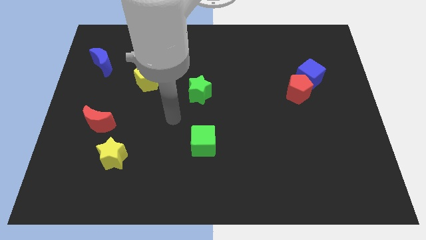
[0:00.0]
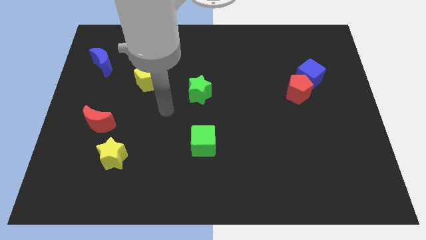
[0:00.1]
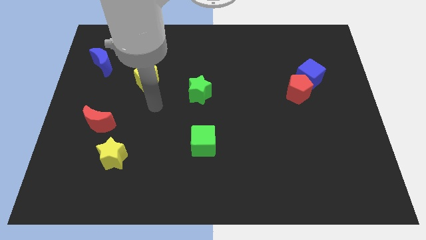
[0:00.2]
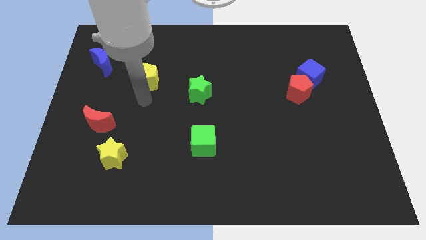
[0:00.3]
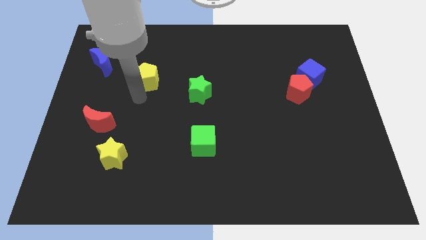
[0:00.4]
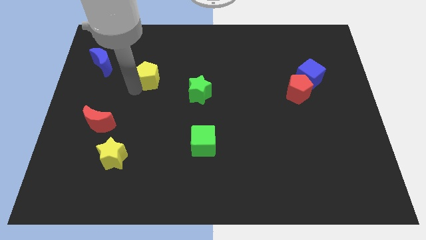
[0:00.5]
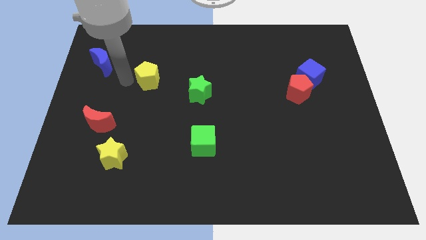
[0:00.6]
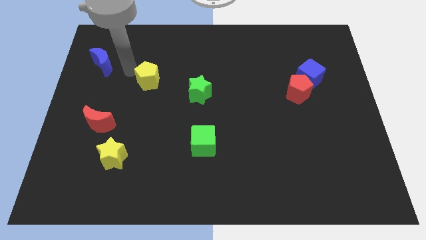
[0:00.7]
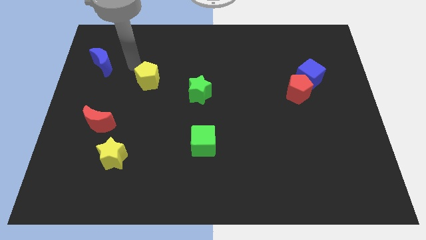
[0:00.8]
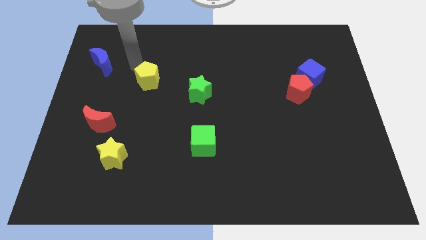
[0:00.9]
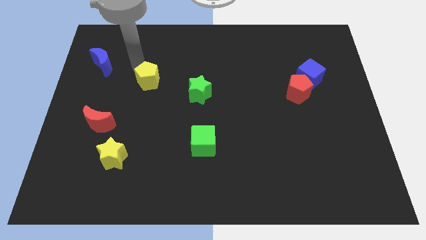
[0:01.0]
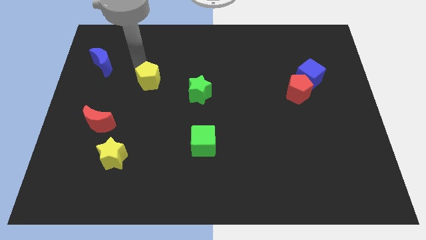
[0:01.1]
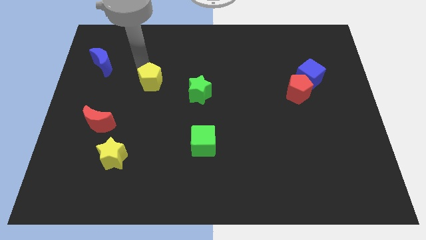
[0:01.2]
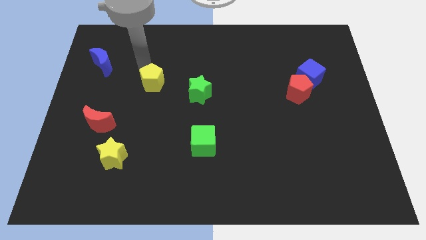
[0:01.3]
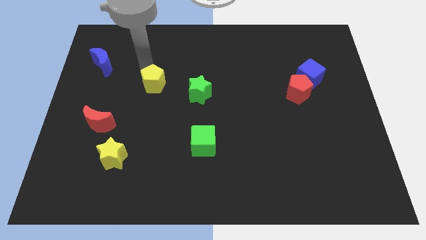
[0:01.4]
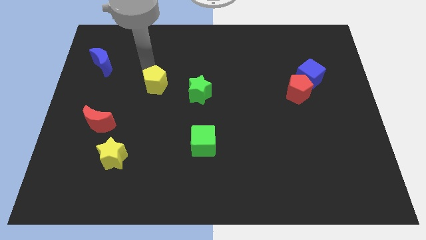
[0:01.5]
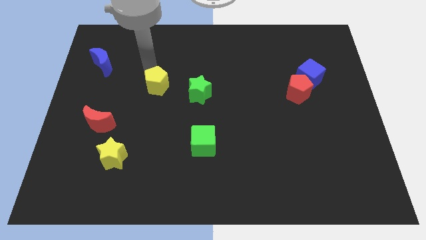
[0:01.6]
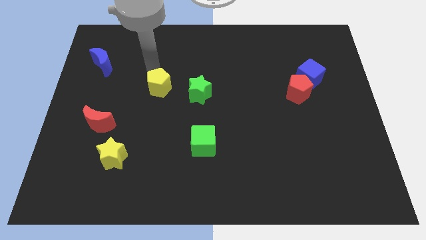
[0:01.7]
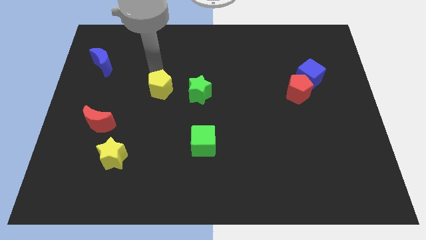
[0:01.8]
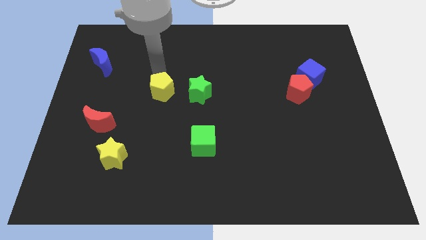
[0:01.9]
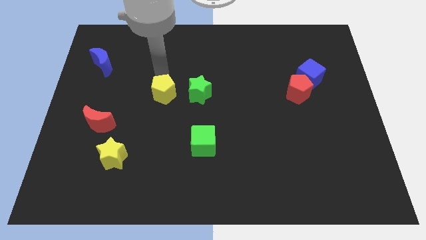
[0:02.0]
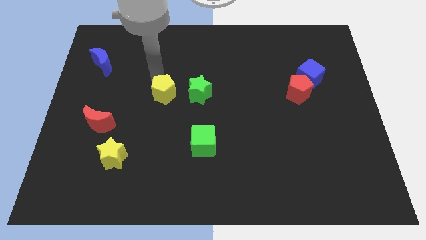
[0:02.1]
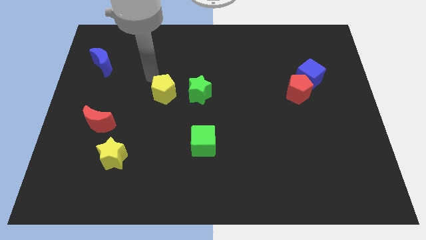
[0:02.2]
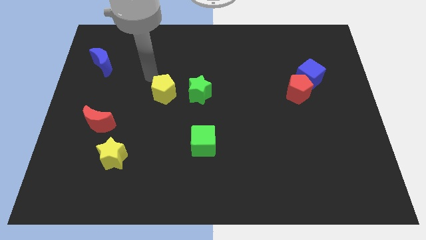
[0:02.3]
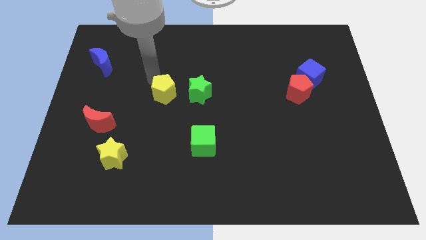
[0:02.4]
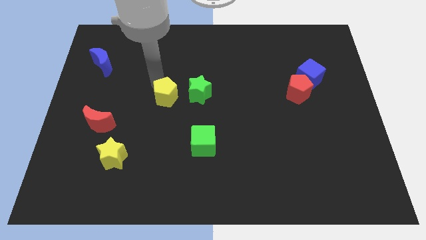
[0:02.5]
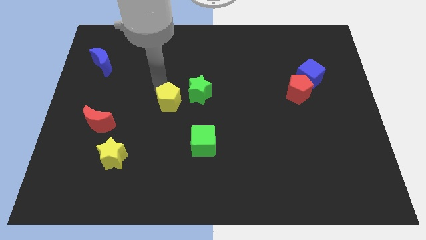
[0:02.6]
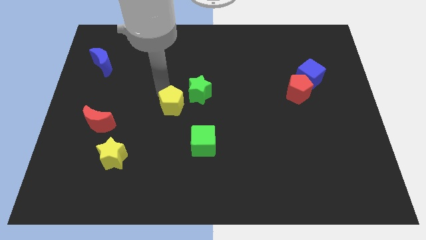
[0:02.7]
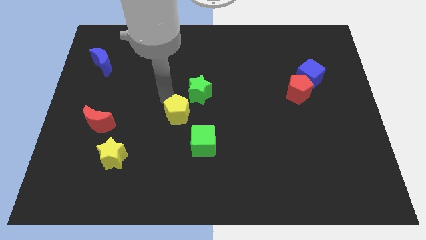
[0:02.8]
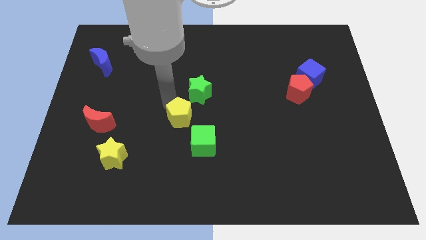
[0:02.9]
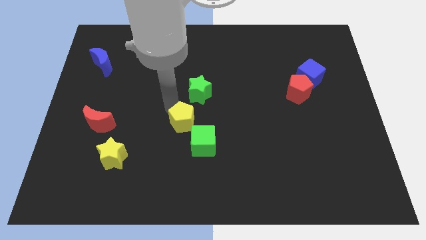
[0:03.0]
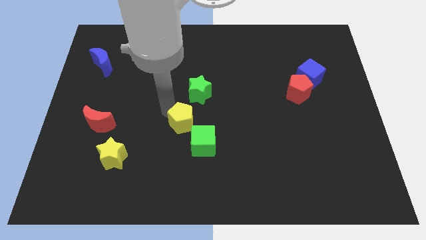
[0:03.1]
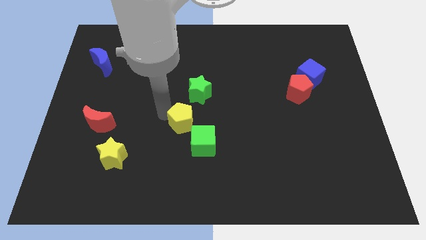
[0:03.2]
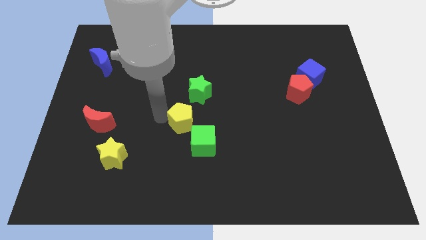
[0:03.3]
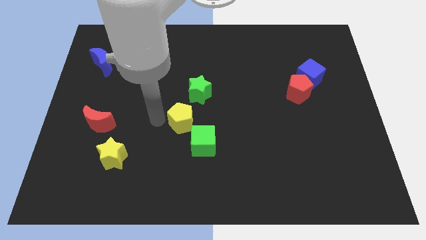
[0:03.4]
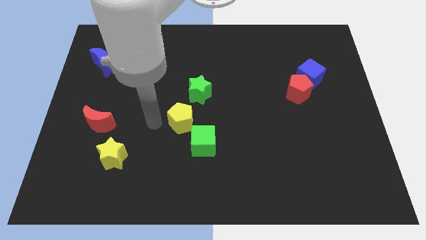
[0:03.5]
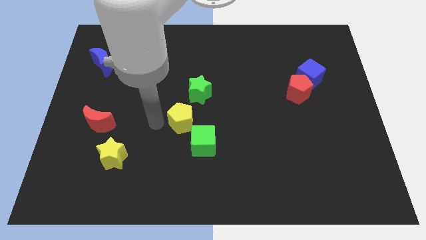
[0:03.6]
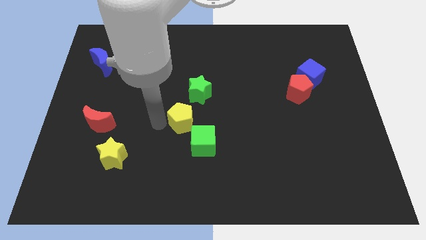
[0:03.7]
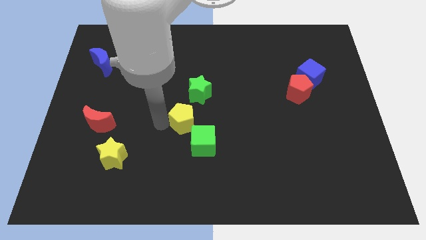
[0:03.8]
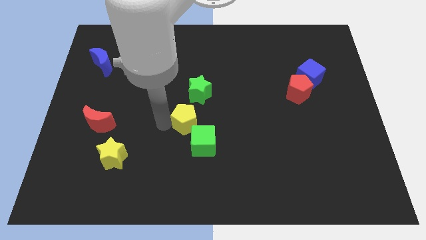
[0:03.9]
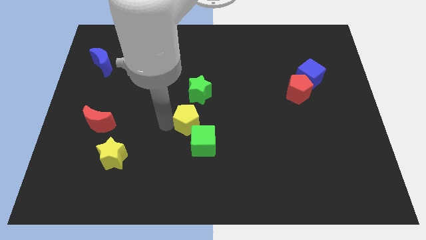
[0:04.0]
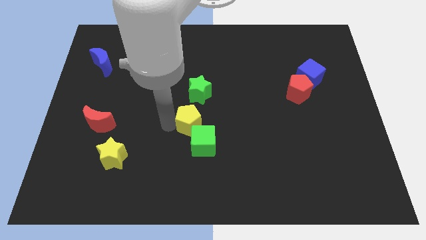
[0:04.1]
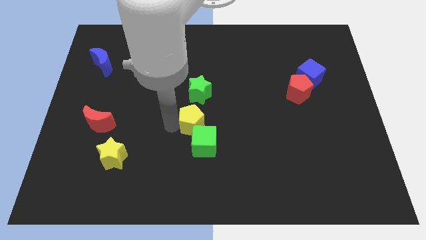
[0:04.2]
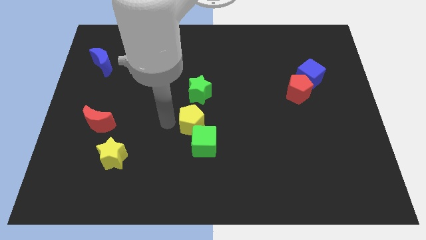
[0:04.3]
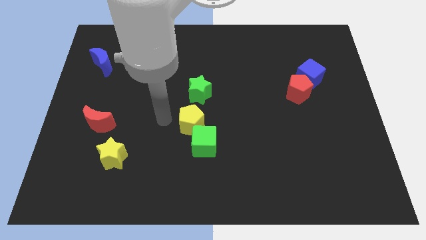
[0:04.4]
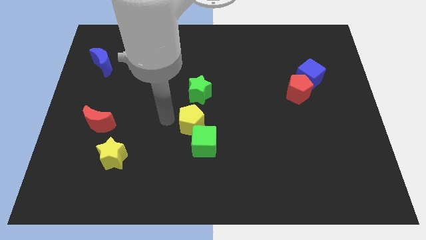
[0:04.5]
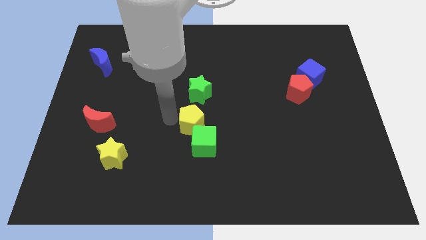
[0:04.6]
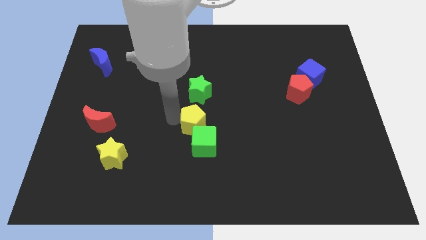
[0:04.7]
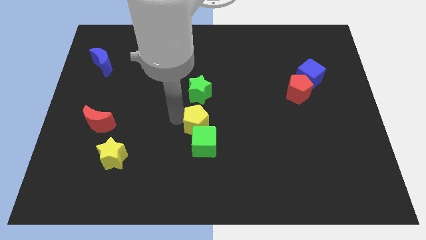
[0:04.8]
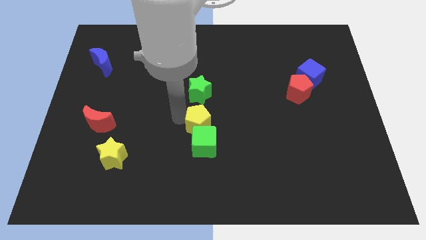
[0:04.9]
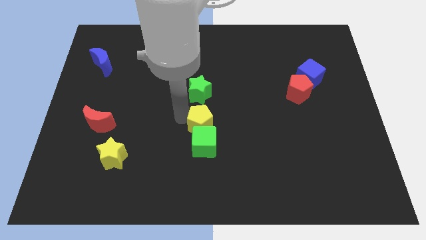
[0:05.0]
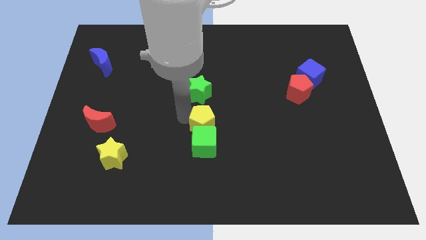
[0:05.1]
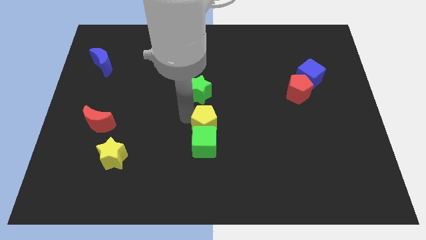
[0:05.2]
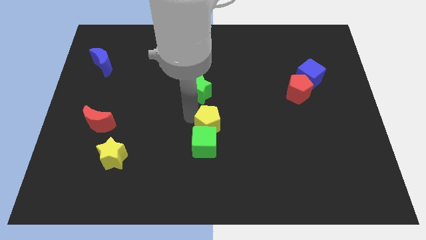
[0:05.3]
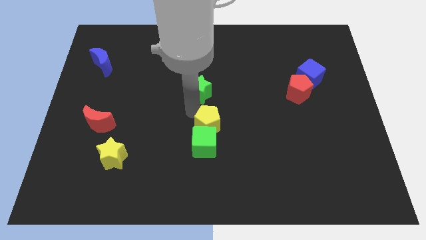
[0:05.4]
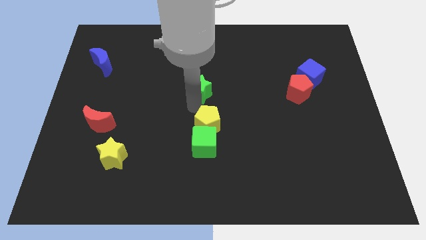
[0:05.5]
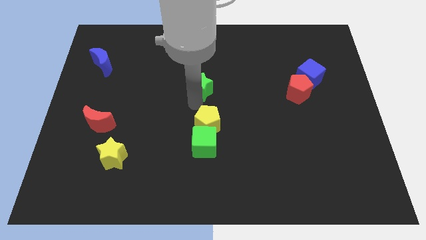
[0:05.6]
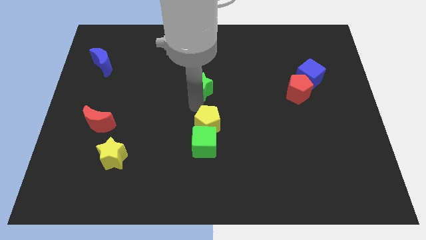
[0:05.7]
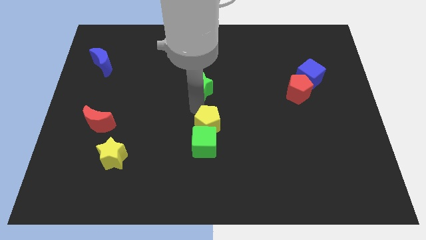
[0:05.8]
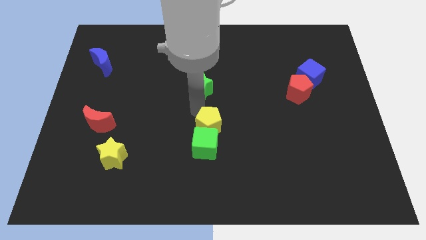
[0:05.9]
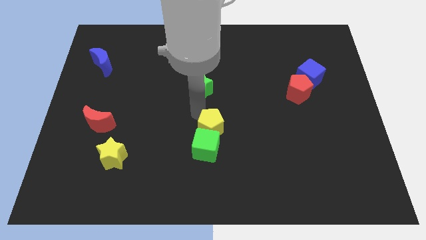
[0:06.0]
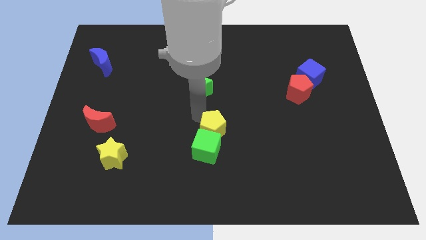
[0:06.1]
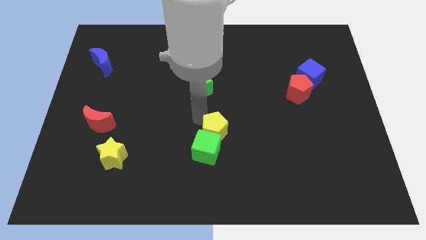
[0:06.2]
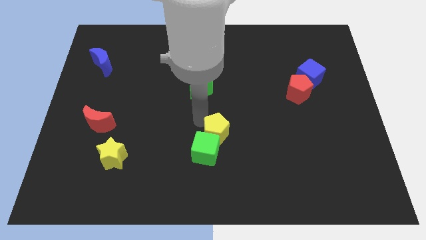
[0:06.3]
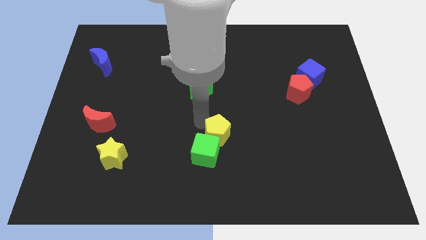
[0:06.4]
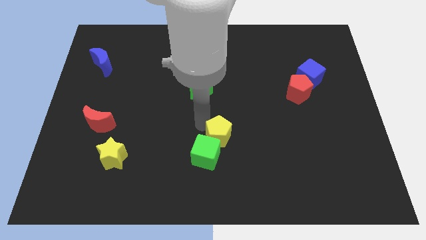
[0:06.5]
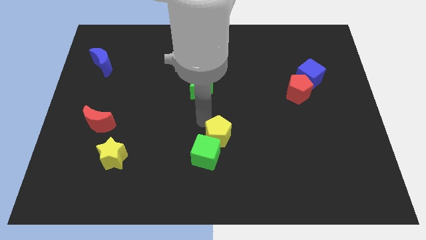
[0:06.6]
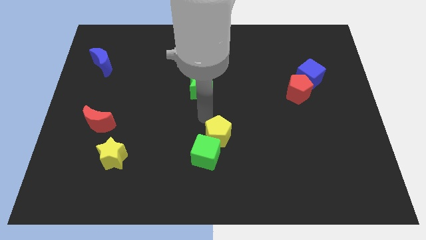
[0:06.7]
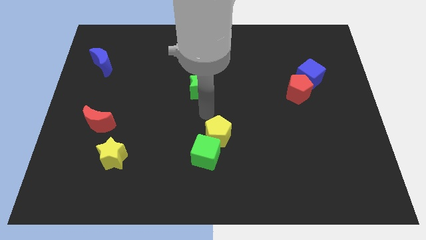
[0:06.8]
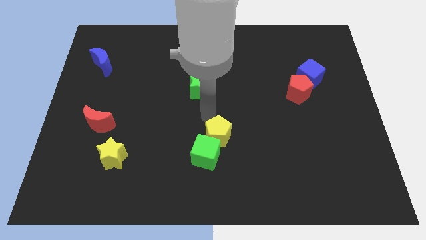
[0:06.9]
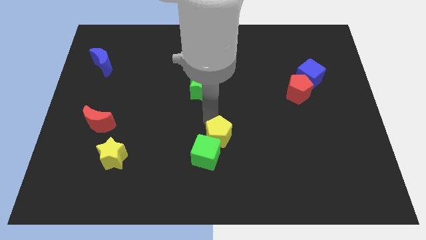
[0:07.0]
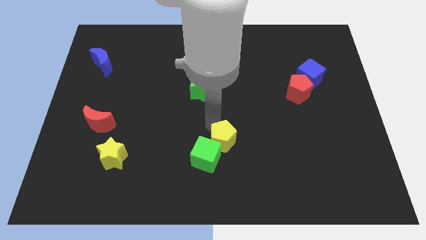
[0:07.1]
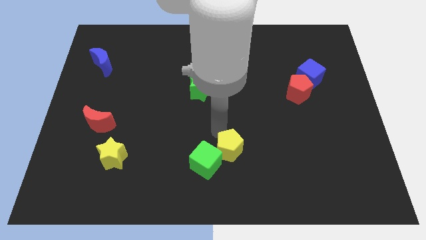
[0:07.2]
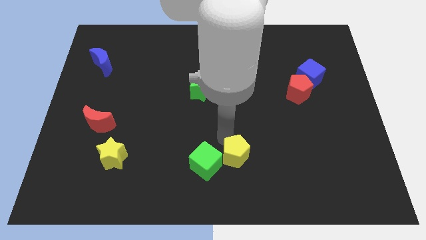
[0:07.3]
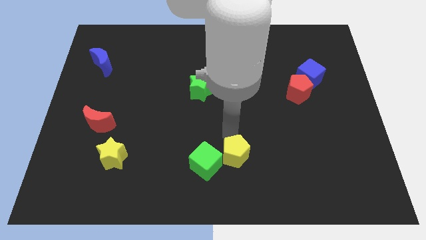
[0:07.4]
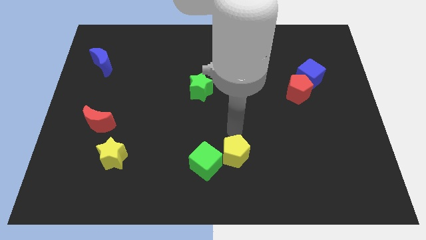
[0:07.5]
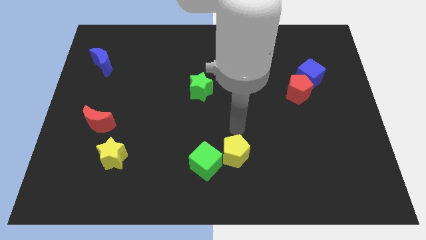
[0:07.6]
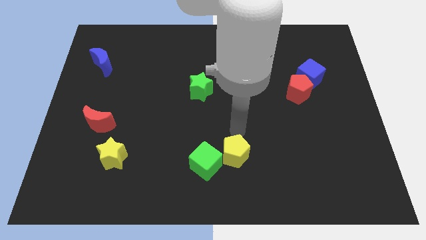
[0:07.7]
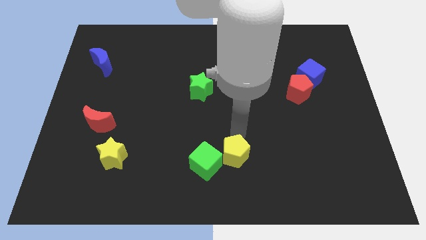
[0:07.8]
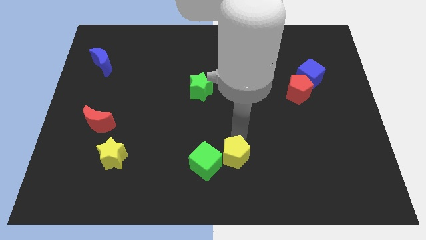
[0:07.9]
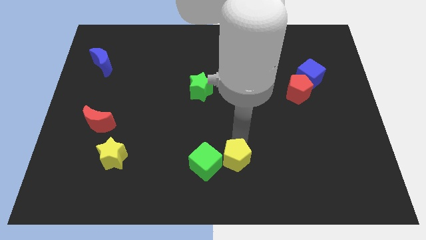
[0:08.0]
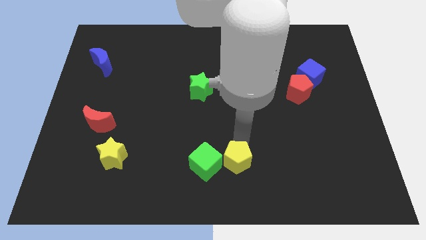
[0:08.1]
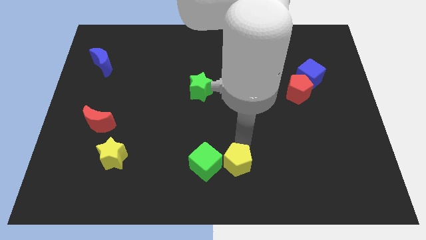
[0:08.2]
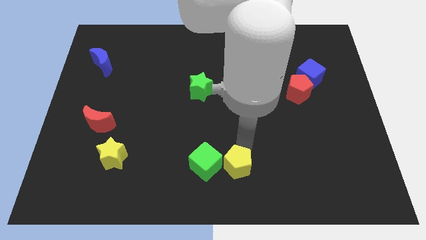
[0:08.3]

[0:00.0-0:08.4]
slide the yellow pentagon to the bottom right of the green cube
